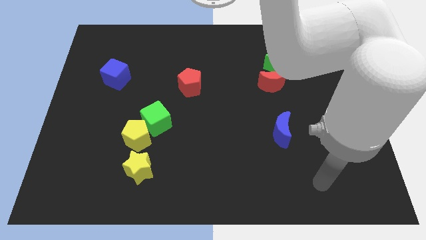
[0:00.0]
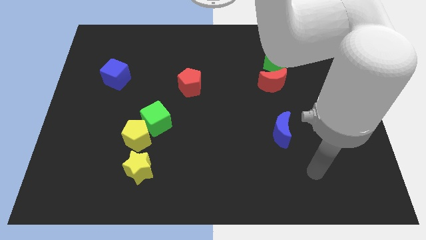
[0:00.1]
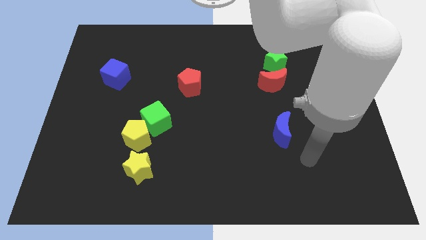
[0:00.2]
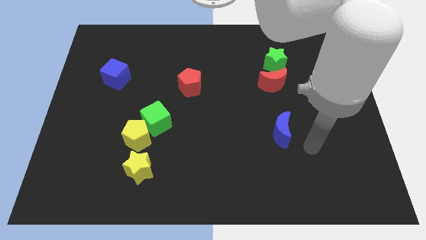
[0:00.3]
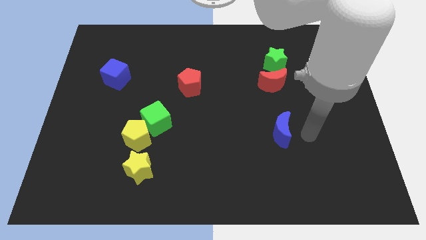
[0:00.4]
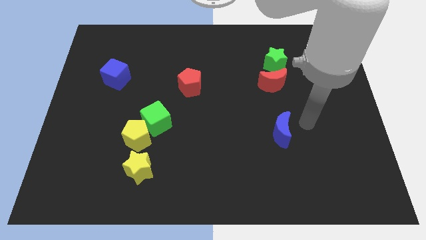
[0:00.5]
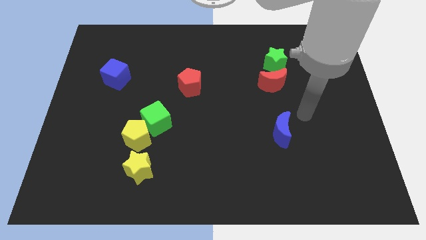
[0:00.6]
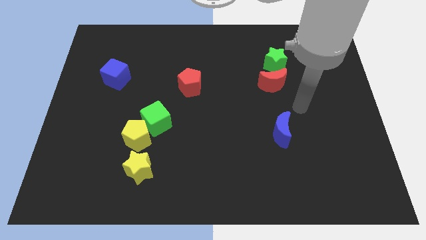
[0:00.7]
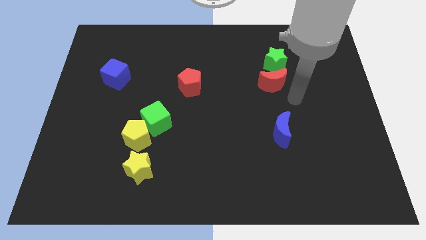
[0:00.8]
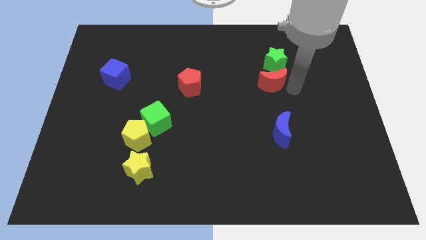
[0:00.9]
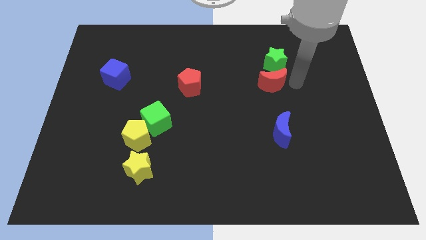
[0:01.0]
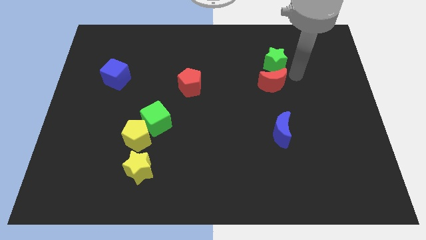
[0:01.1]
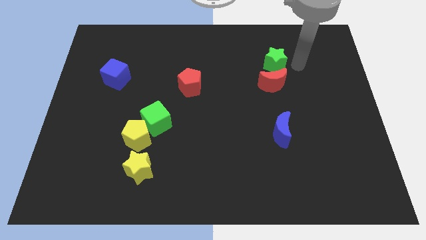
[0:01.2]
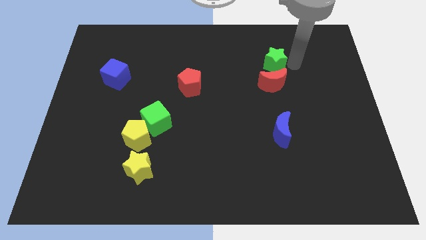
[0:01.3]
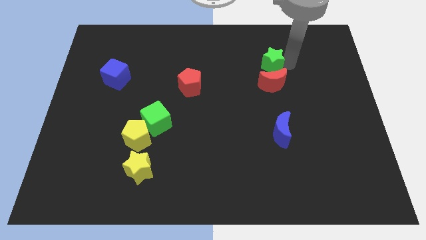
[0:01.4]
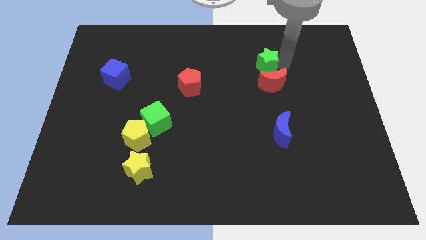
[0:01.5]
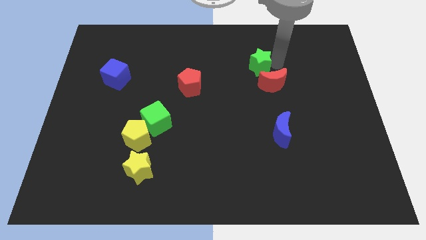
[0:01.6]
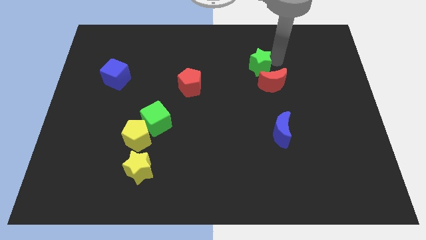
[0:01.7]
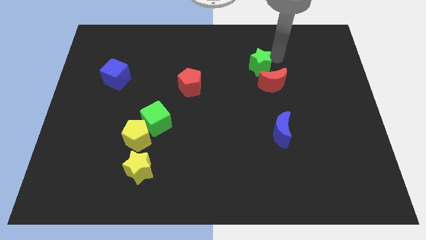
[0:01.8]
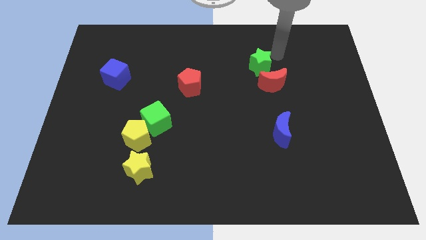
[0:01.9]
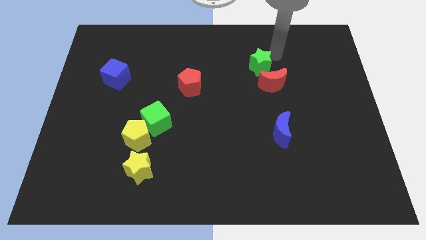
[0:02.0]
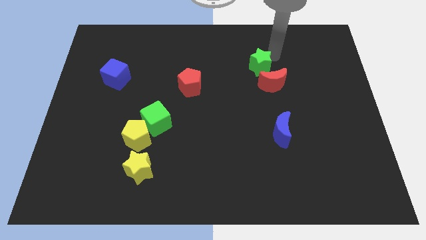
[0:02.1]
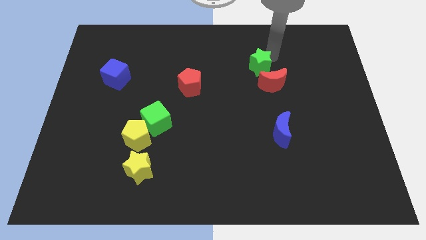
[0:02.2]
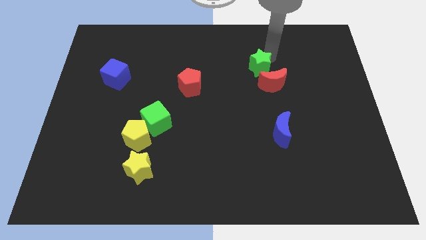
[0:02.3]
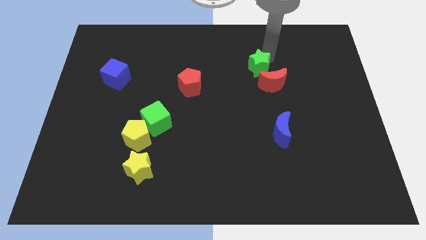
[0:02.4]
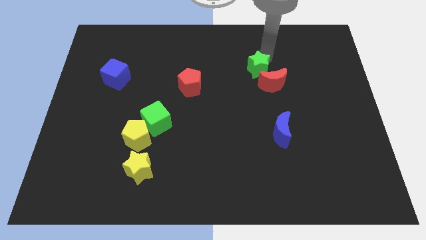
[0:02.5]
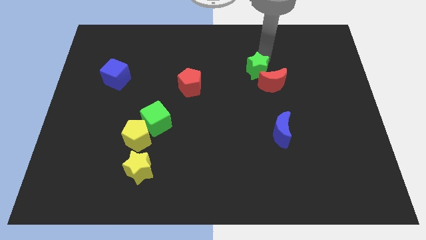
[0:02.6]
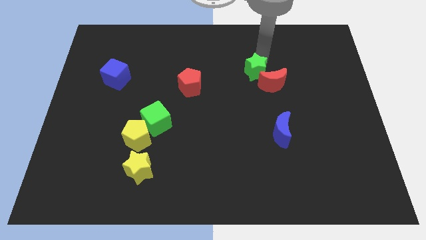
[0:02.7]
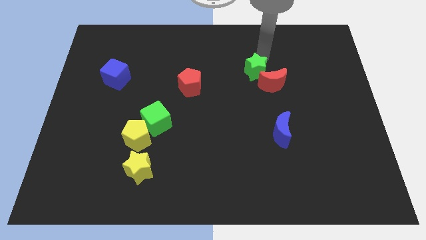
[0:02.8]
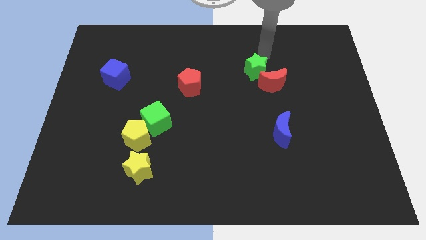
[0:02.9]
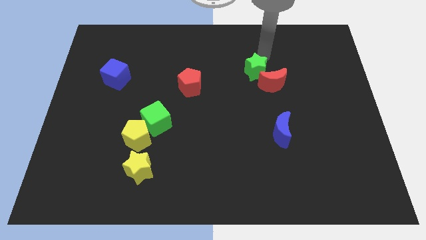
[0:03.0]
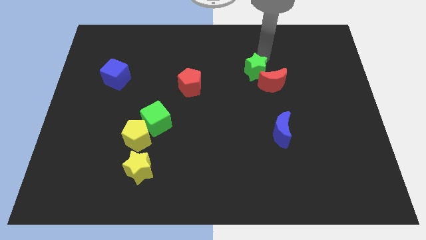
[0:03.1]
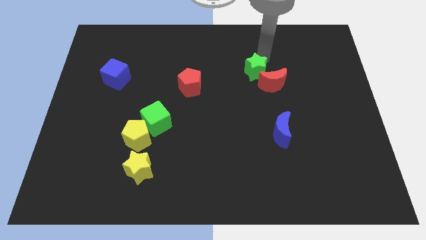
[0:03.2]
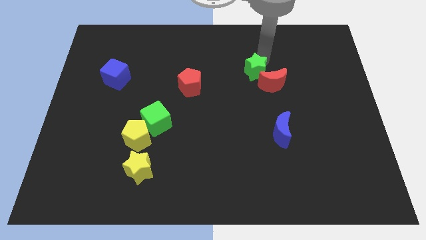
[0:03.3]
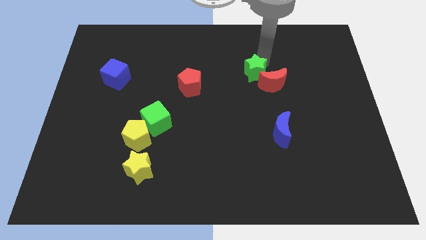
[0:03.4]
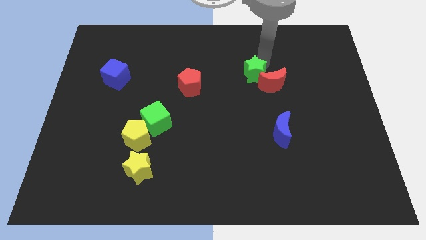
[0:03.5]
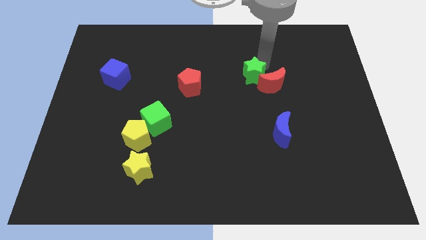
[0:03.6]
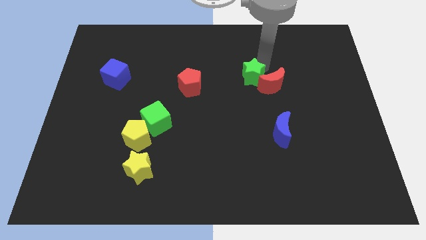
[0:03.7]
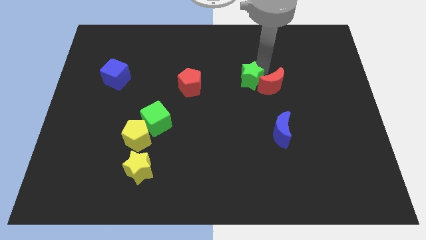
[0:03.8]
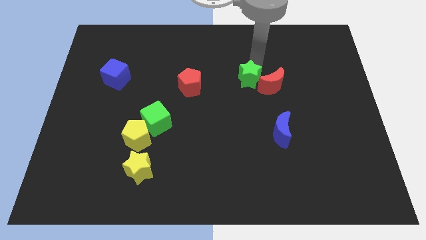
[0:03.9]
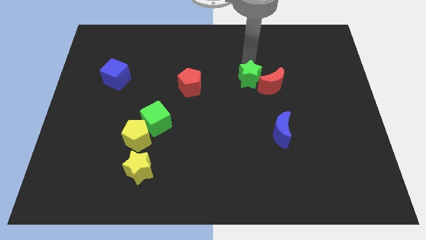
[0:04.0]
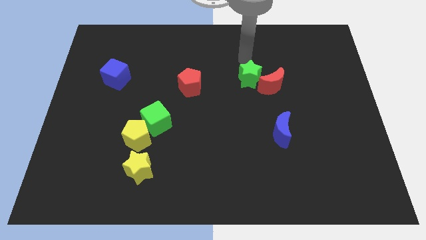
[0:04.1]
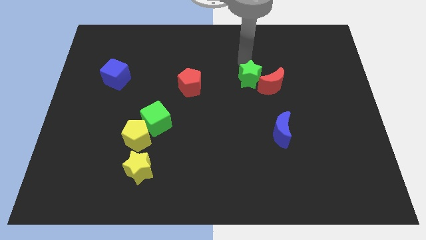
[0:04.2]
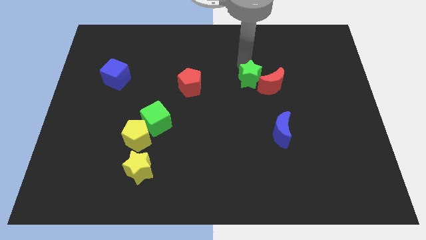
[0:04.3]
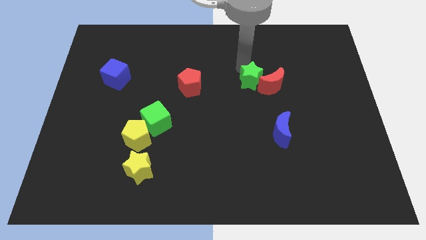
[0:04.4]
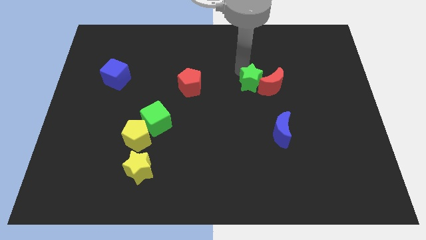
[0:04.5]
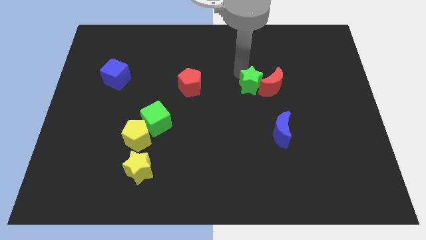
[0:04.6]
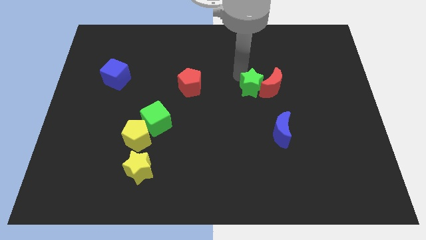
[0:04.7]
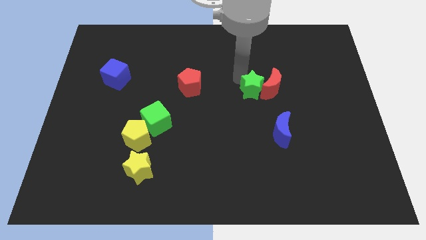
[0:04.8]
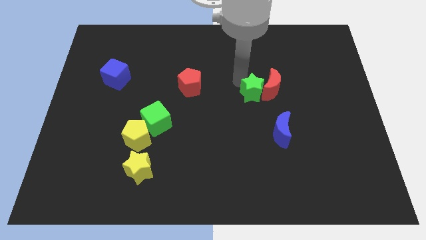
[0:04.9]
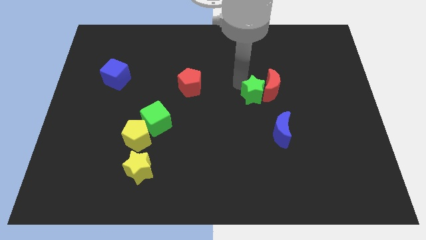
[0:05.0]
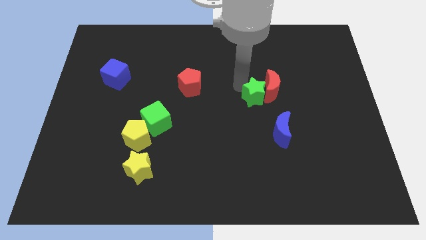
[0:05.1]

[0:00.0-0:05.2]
push the green star to the top left side of the blue moon

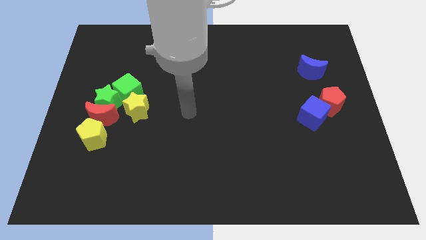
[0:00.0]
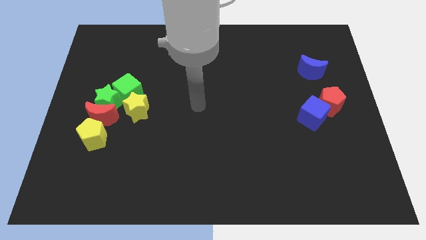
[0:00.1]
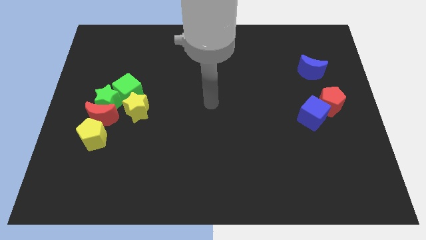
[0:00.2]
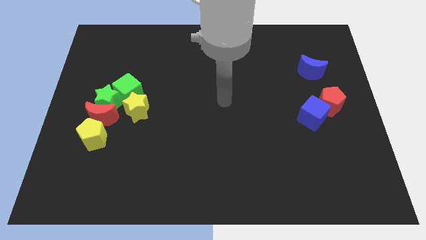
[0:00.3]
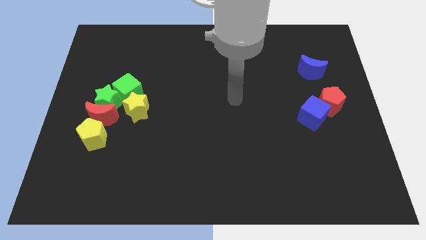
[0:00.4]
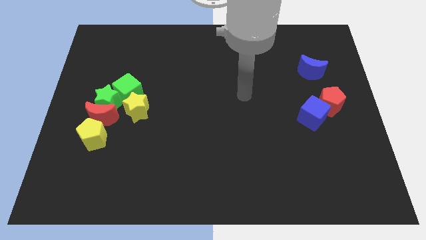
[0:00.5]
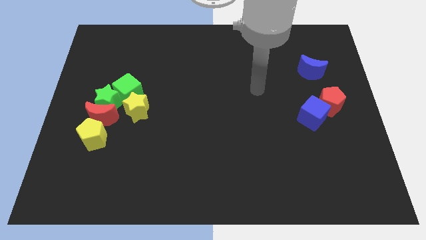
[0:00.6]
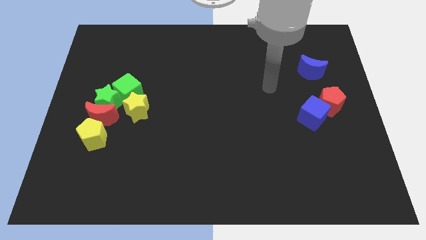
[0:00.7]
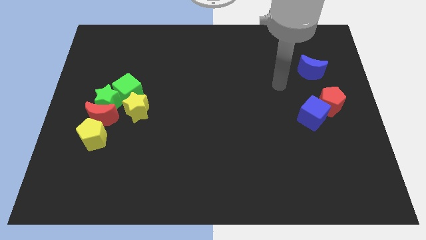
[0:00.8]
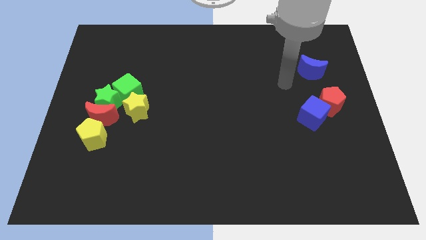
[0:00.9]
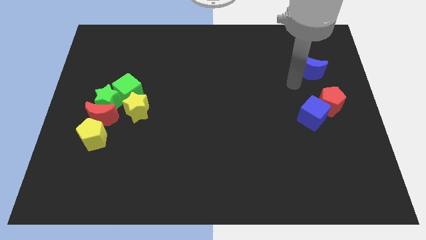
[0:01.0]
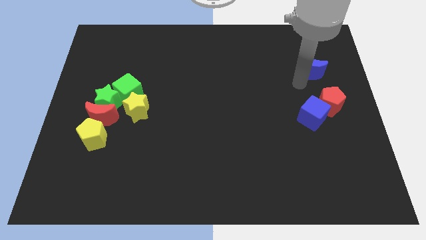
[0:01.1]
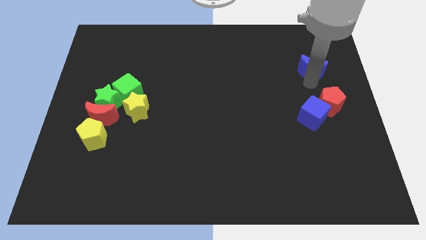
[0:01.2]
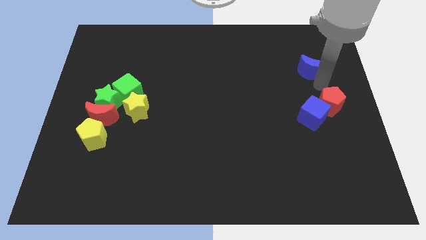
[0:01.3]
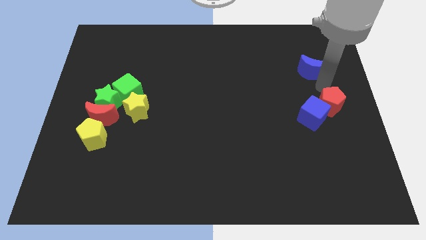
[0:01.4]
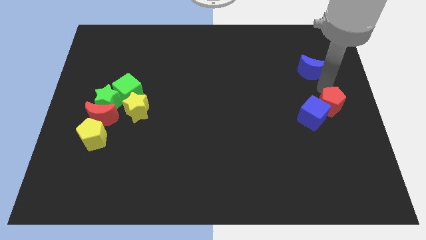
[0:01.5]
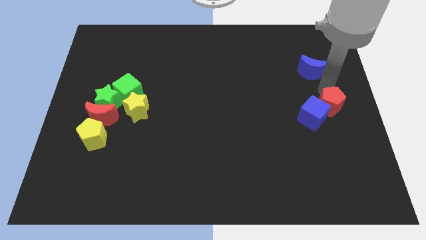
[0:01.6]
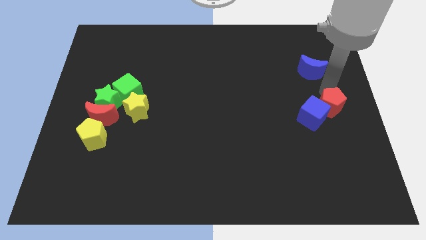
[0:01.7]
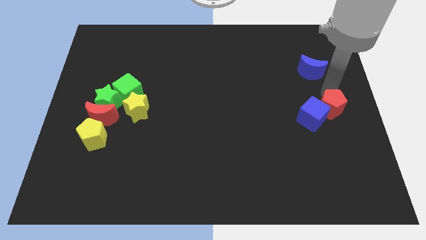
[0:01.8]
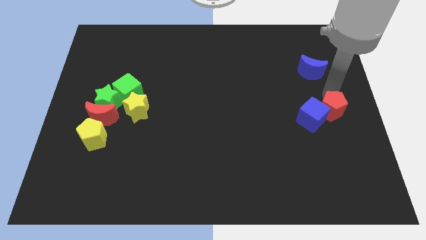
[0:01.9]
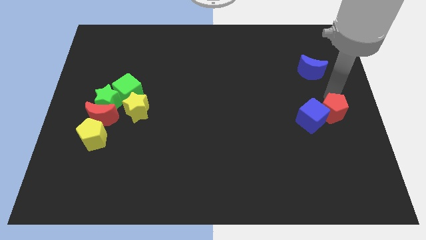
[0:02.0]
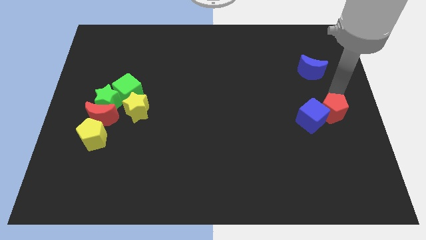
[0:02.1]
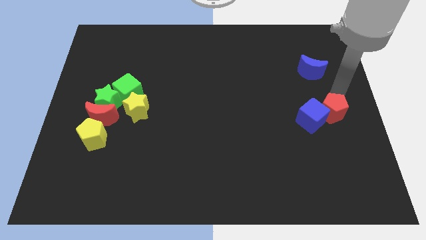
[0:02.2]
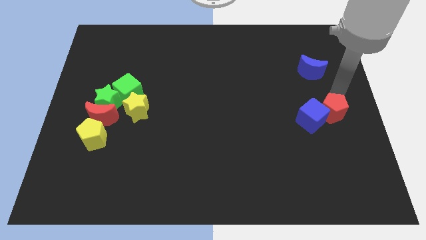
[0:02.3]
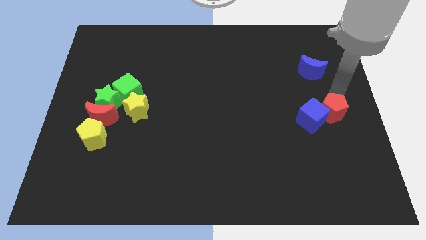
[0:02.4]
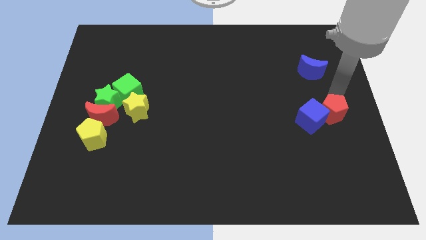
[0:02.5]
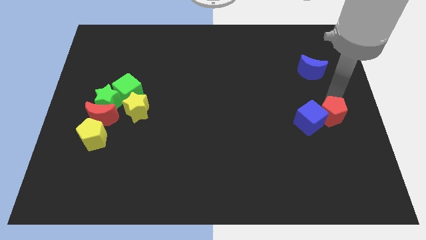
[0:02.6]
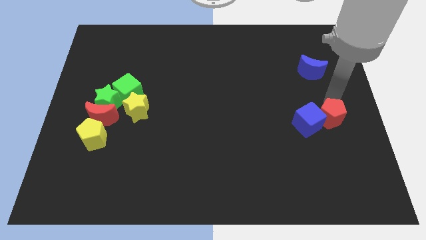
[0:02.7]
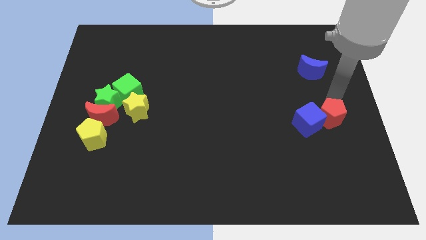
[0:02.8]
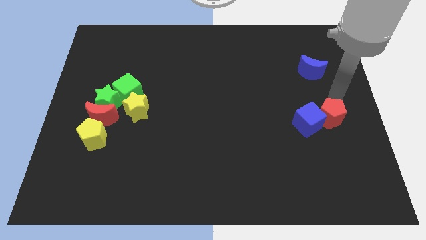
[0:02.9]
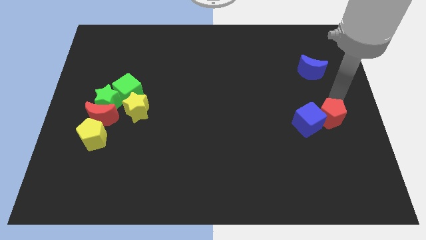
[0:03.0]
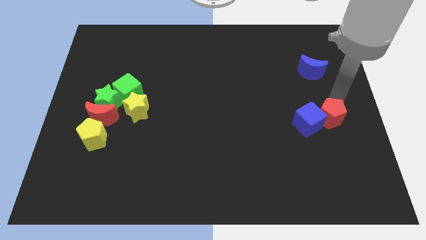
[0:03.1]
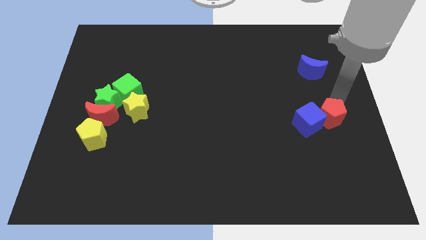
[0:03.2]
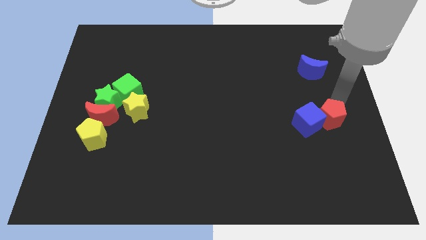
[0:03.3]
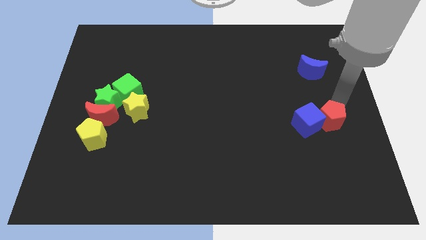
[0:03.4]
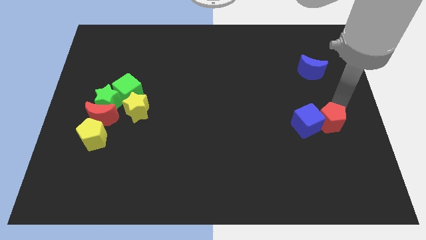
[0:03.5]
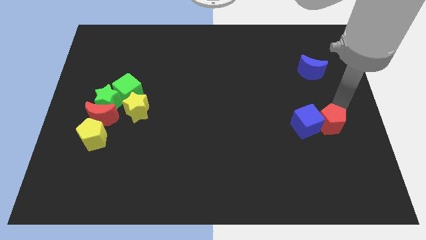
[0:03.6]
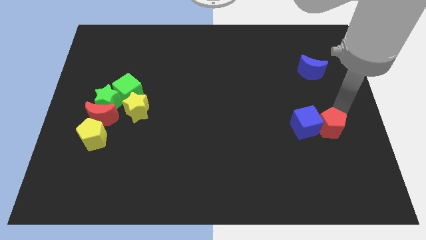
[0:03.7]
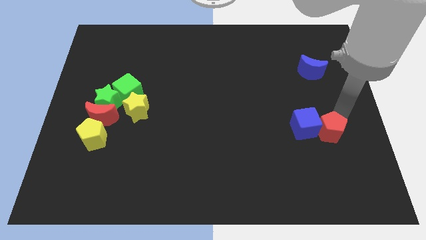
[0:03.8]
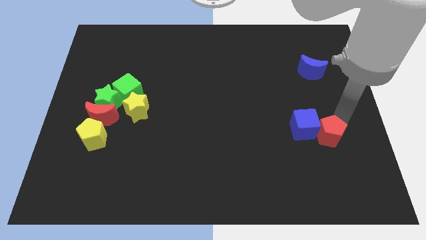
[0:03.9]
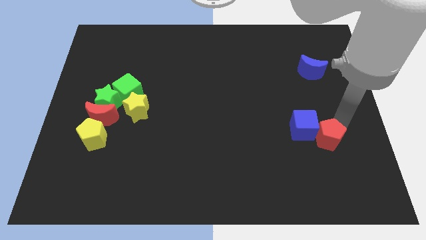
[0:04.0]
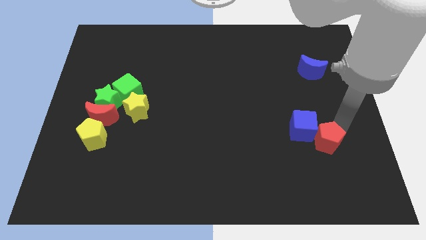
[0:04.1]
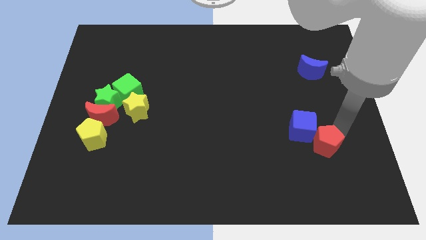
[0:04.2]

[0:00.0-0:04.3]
put the red pentagon to the bottom side of the blue cube
